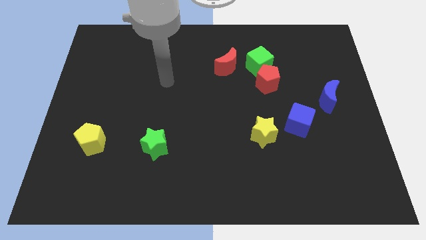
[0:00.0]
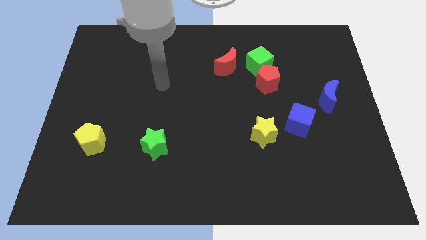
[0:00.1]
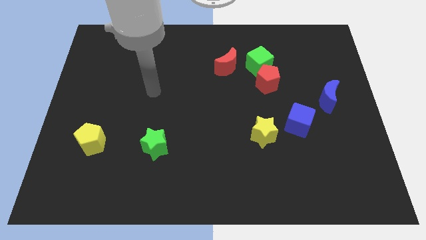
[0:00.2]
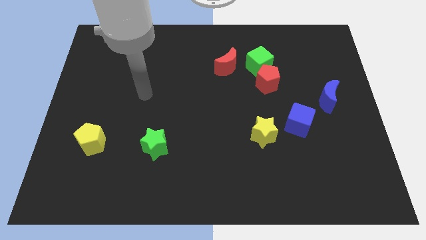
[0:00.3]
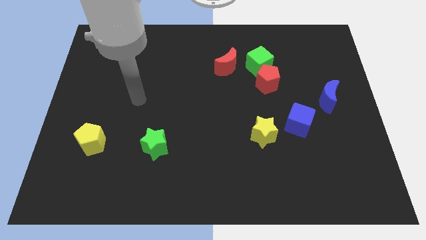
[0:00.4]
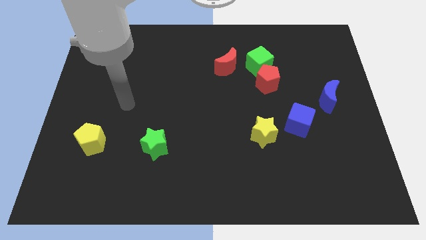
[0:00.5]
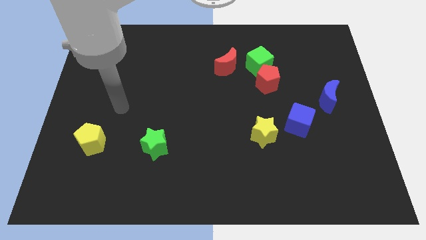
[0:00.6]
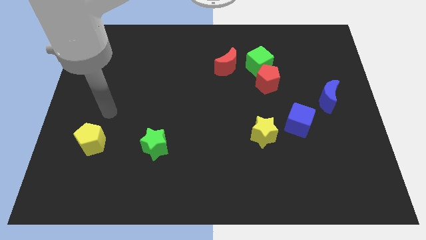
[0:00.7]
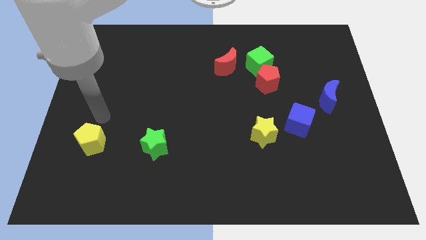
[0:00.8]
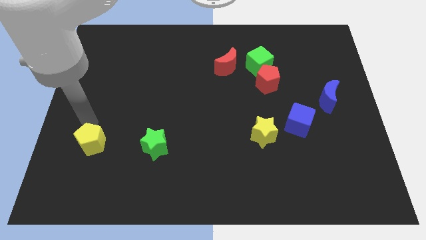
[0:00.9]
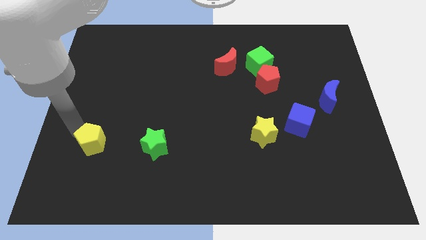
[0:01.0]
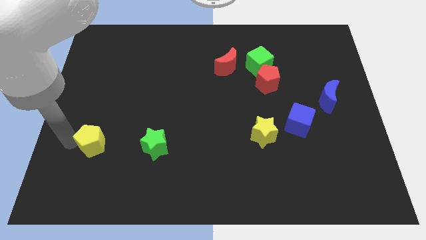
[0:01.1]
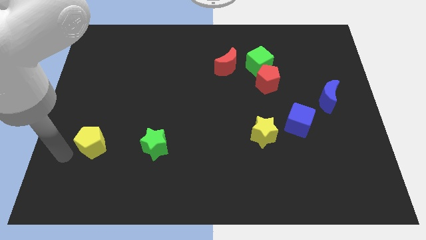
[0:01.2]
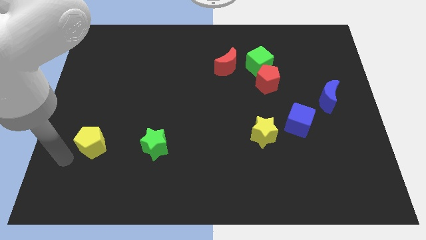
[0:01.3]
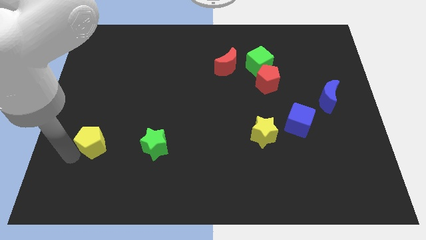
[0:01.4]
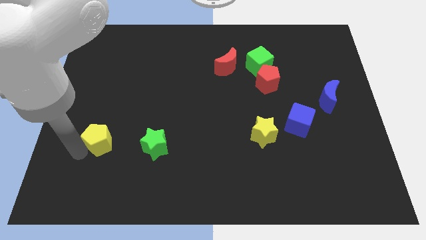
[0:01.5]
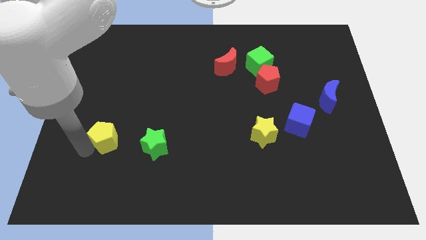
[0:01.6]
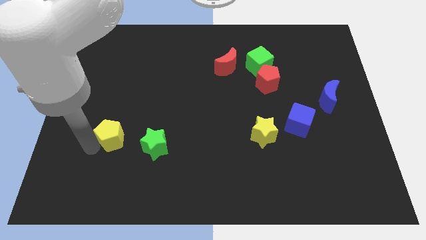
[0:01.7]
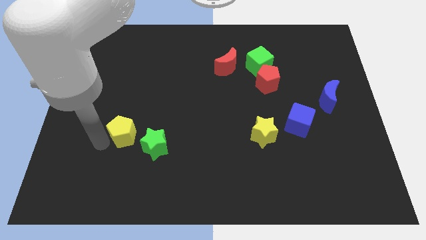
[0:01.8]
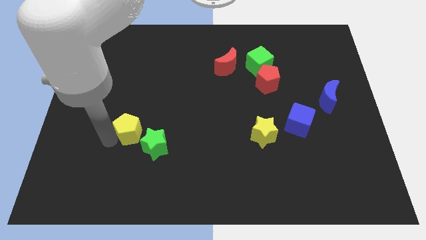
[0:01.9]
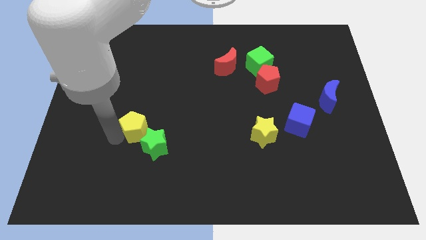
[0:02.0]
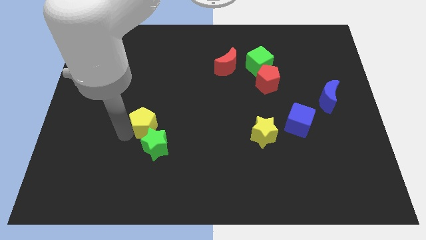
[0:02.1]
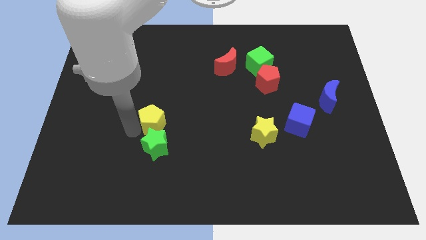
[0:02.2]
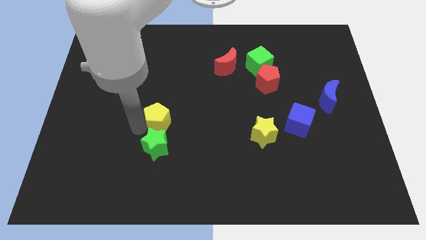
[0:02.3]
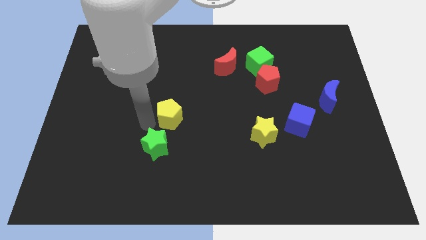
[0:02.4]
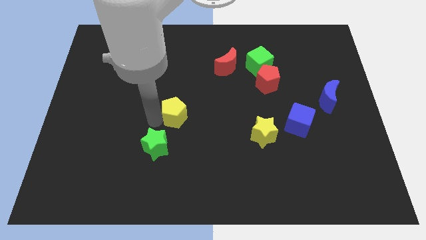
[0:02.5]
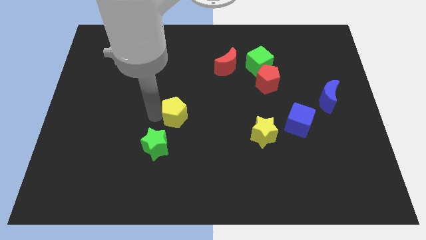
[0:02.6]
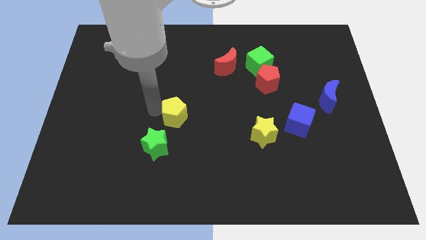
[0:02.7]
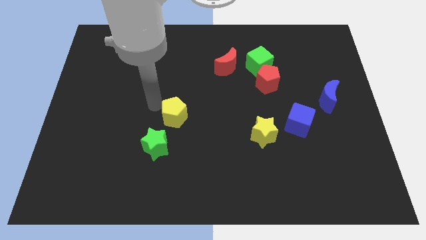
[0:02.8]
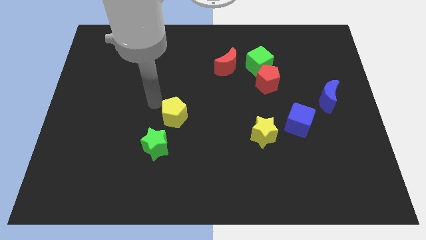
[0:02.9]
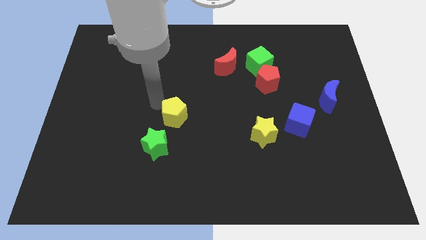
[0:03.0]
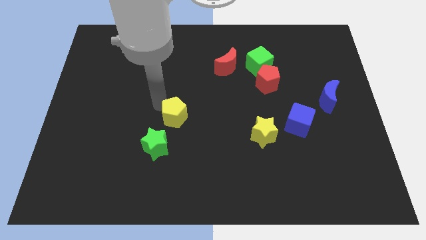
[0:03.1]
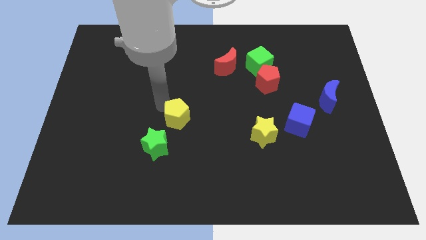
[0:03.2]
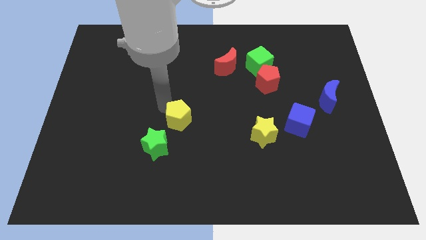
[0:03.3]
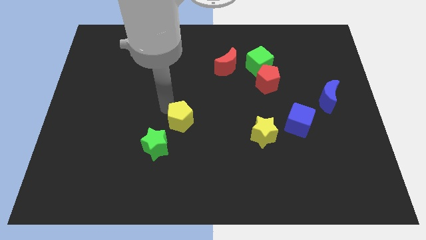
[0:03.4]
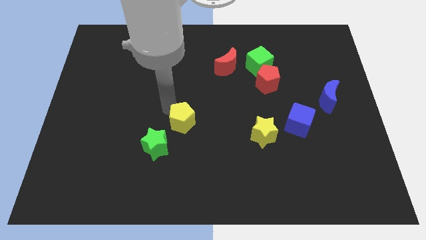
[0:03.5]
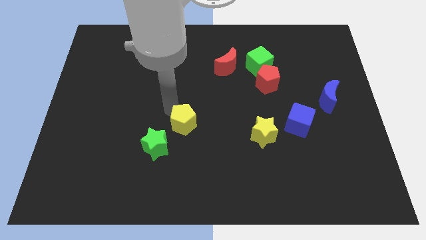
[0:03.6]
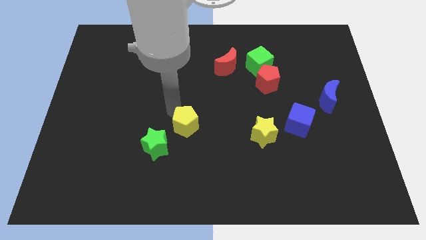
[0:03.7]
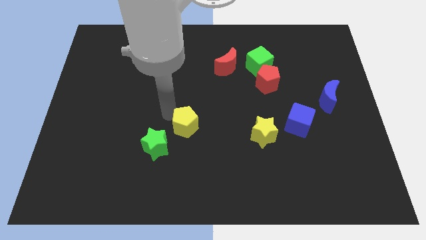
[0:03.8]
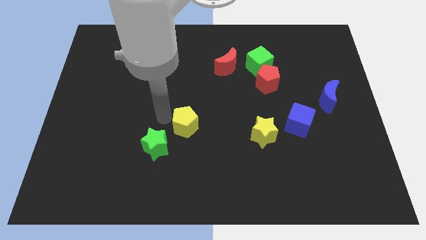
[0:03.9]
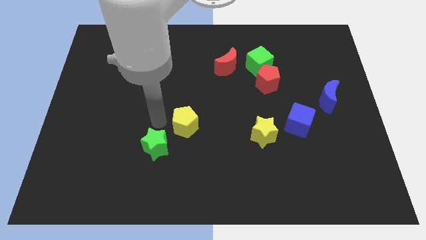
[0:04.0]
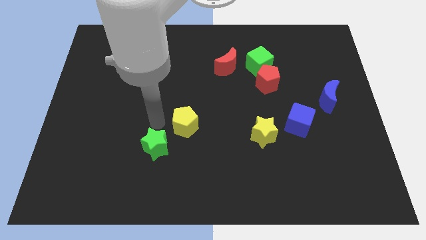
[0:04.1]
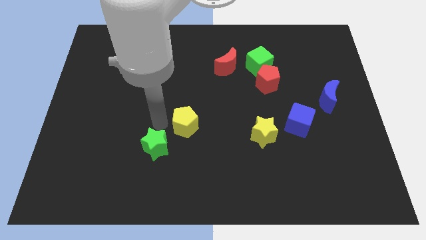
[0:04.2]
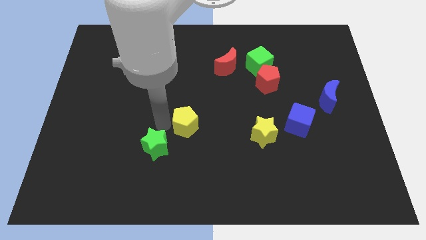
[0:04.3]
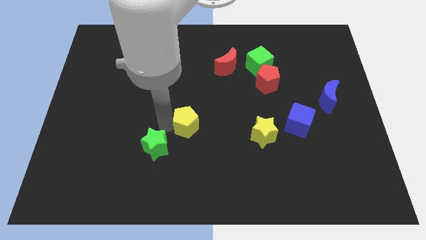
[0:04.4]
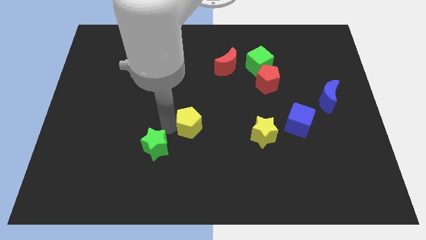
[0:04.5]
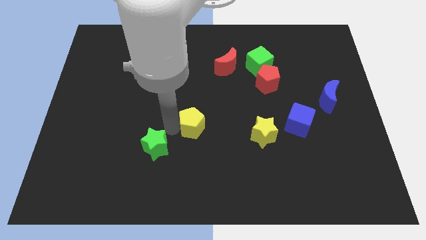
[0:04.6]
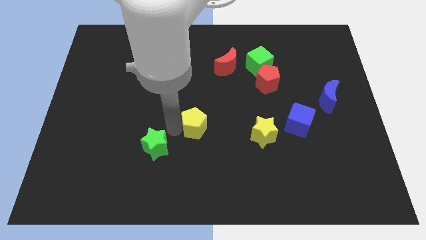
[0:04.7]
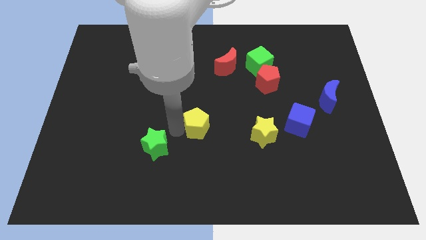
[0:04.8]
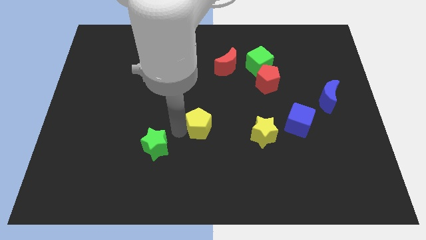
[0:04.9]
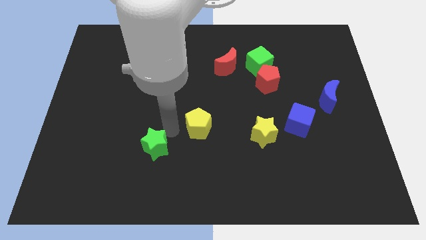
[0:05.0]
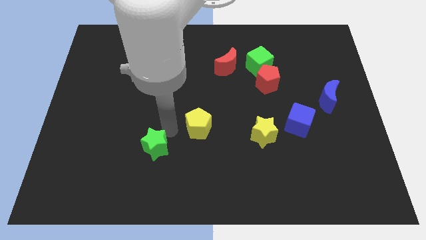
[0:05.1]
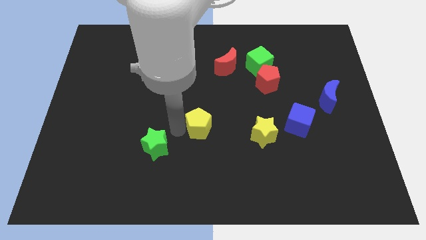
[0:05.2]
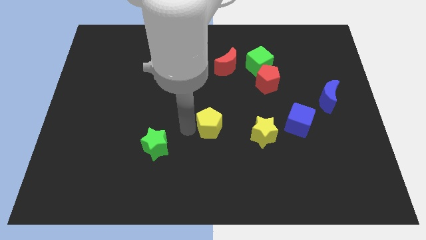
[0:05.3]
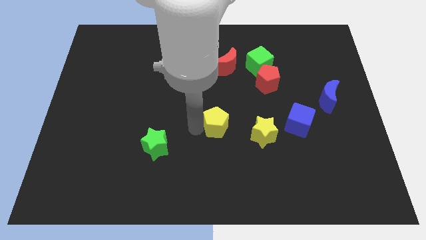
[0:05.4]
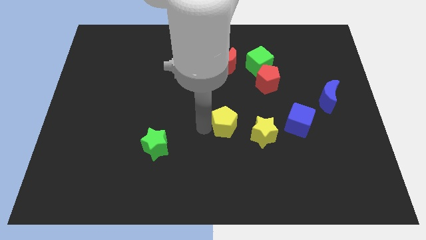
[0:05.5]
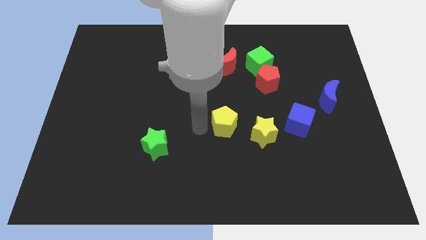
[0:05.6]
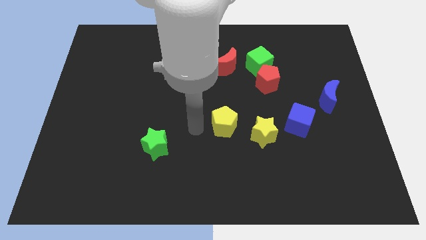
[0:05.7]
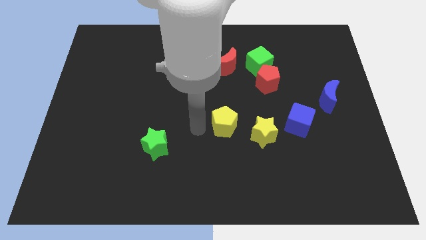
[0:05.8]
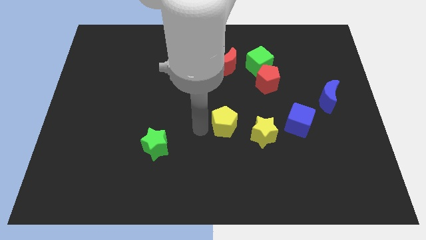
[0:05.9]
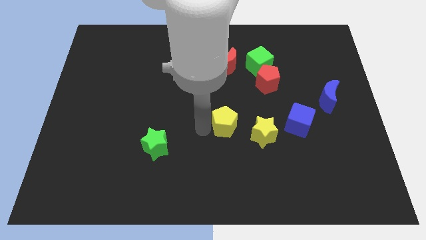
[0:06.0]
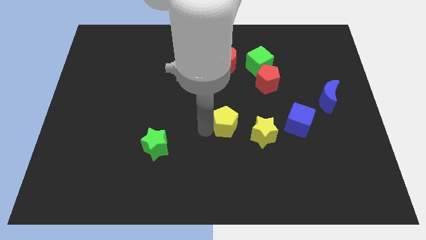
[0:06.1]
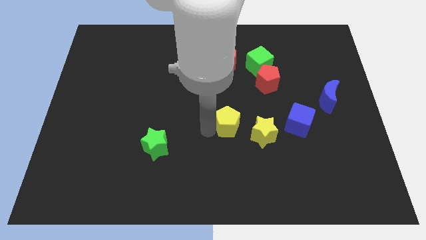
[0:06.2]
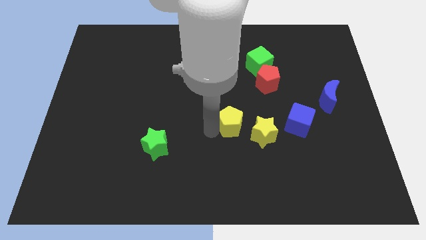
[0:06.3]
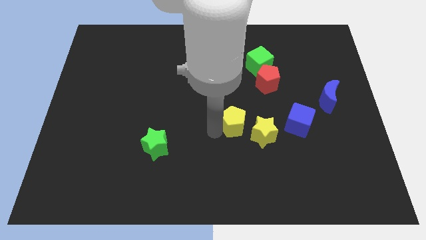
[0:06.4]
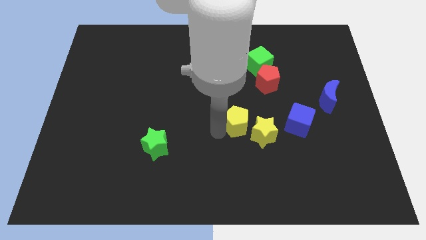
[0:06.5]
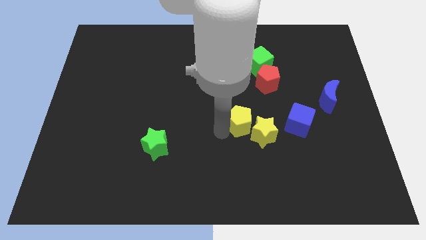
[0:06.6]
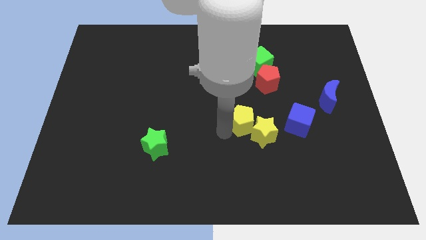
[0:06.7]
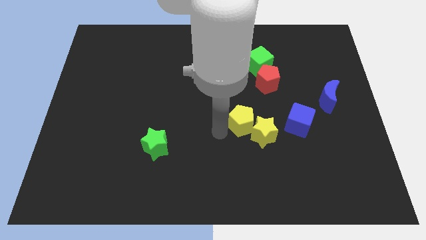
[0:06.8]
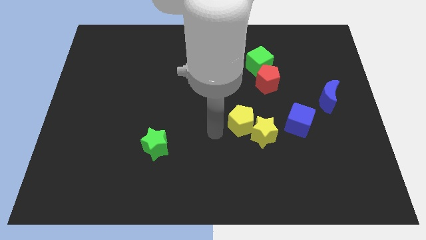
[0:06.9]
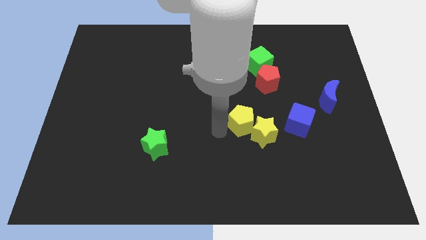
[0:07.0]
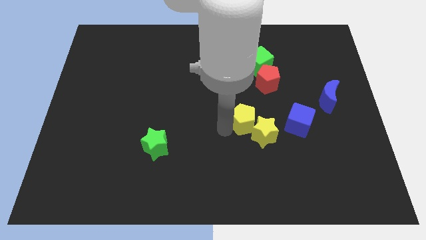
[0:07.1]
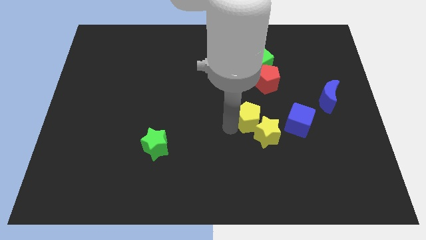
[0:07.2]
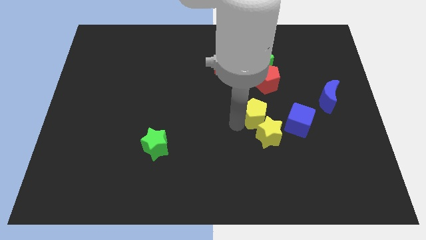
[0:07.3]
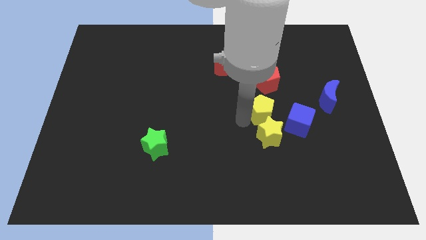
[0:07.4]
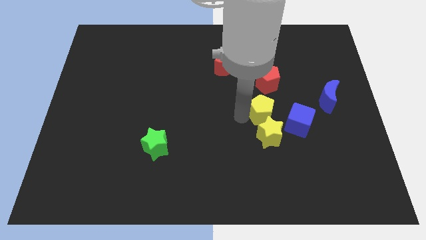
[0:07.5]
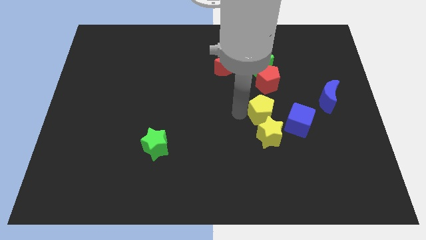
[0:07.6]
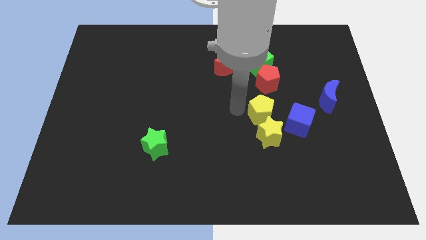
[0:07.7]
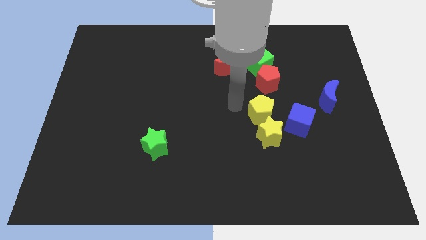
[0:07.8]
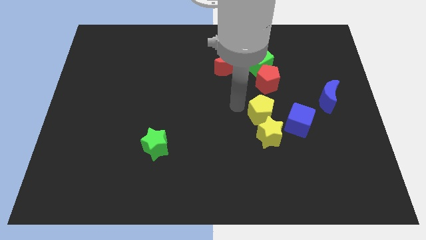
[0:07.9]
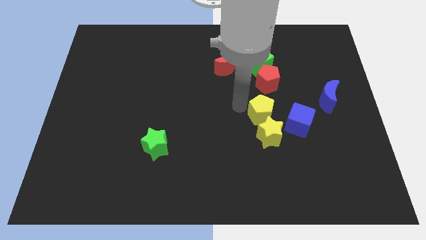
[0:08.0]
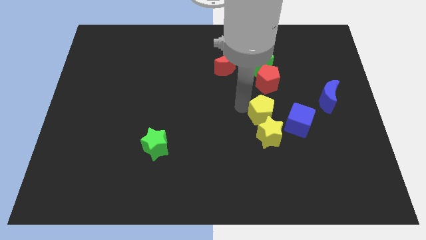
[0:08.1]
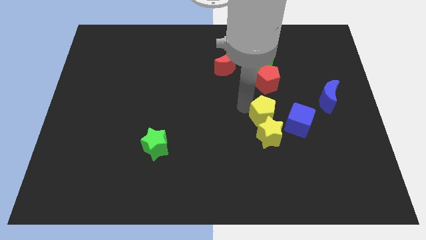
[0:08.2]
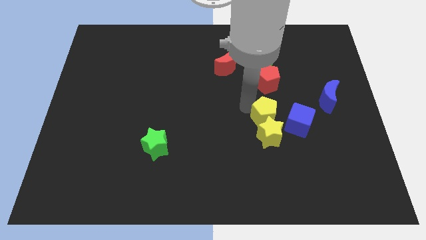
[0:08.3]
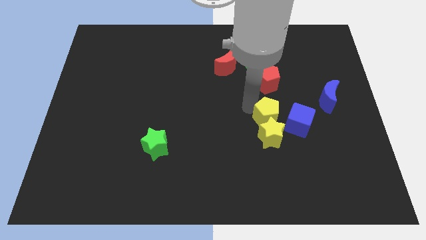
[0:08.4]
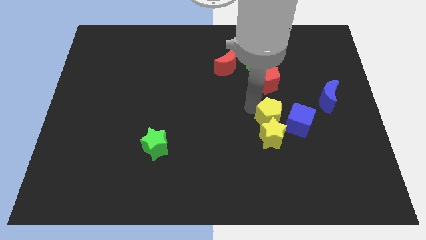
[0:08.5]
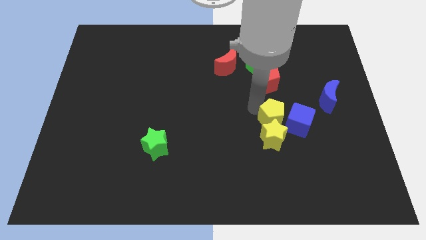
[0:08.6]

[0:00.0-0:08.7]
slide the yellow pentagon towards the blue cube
